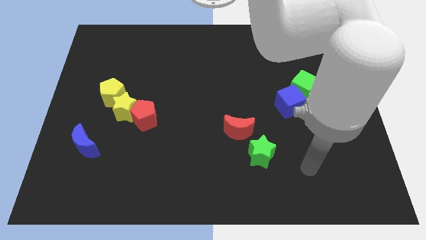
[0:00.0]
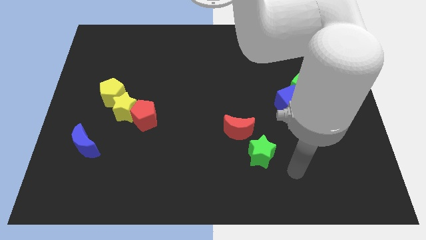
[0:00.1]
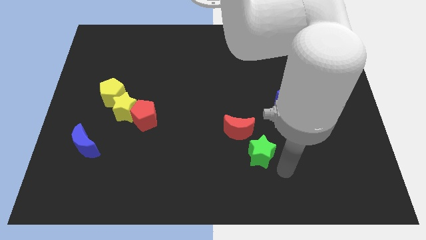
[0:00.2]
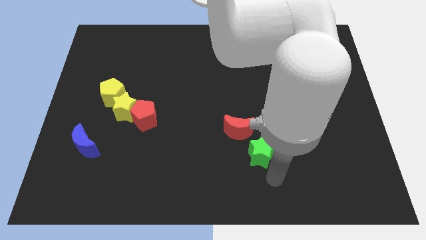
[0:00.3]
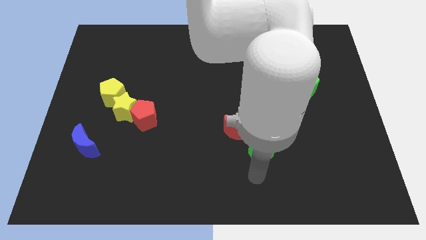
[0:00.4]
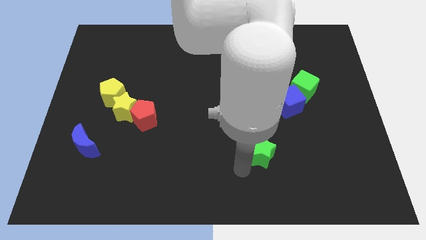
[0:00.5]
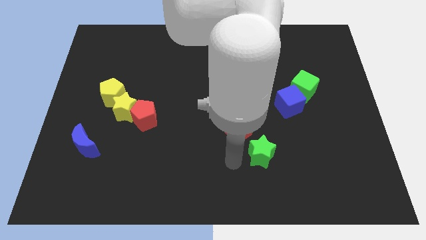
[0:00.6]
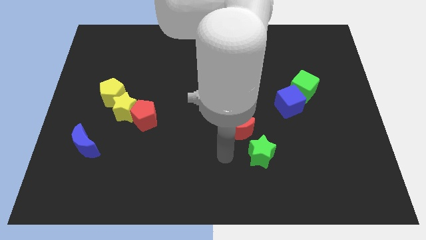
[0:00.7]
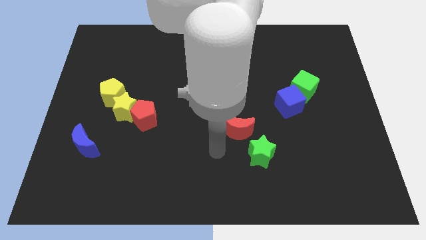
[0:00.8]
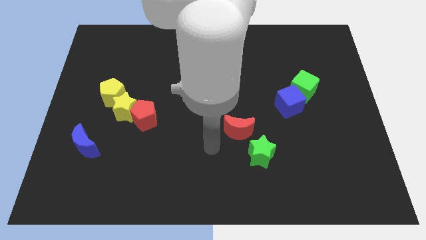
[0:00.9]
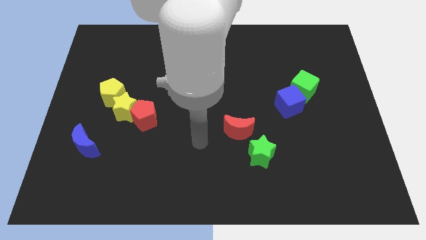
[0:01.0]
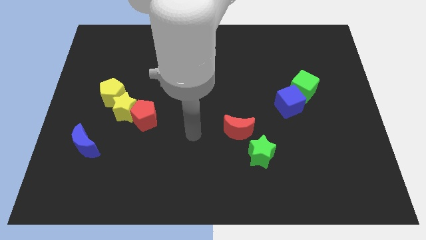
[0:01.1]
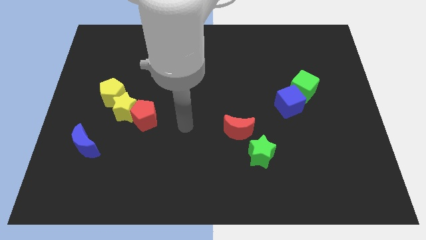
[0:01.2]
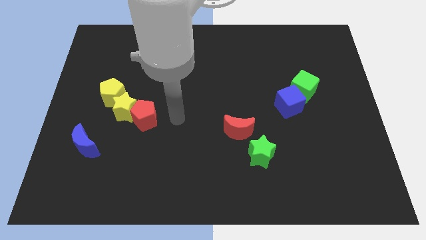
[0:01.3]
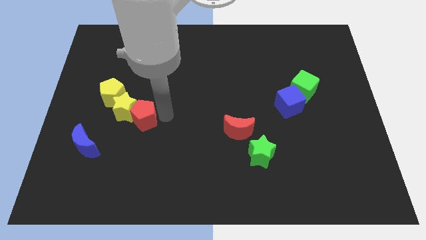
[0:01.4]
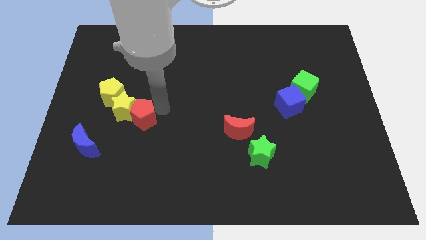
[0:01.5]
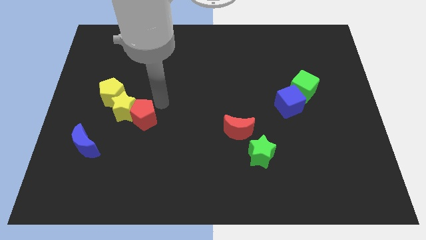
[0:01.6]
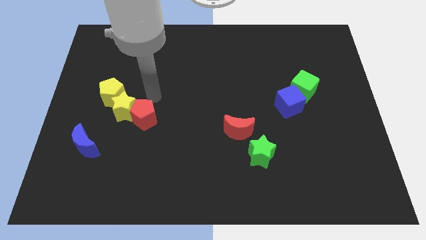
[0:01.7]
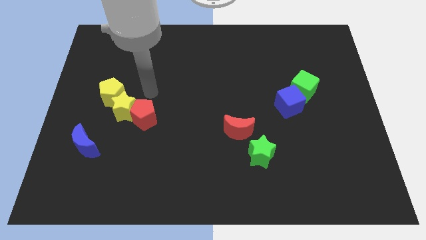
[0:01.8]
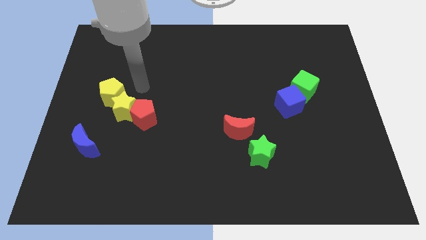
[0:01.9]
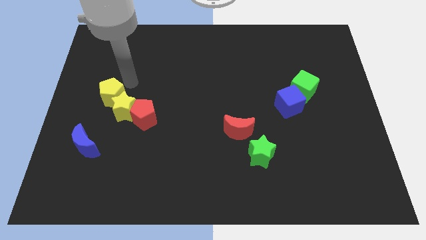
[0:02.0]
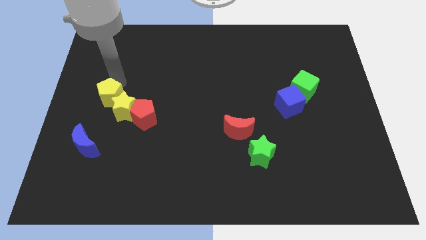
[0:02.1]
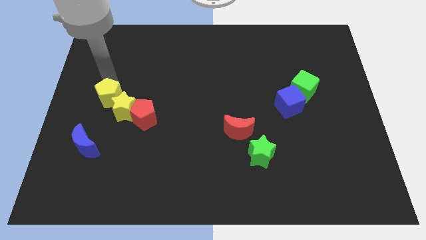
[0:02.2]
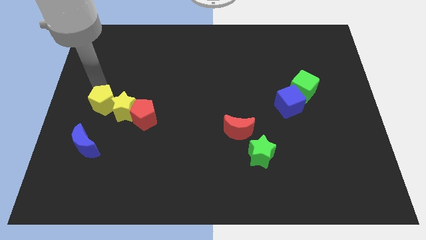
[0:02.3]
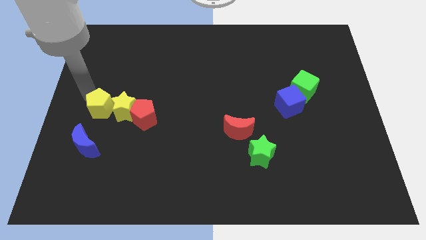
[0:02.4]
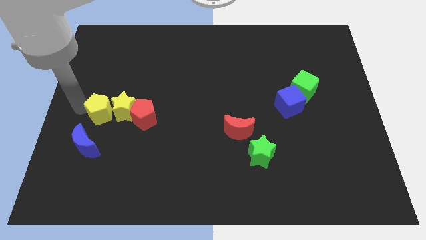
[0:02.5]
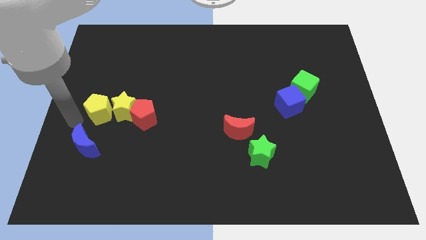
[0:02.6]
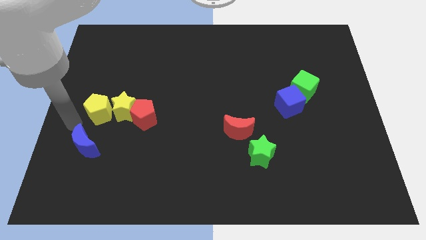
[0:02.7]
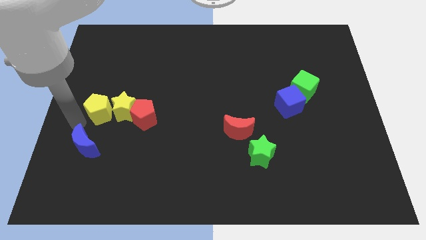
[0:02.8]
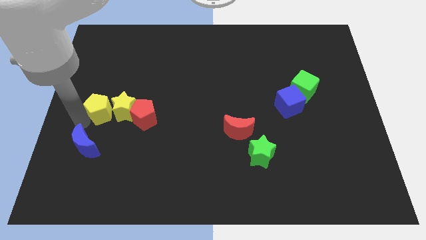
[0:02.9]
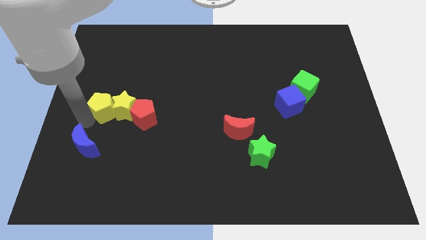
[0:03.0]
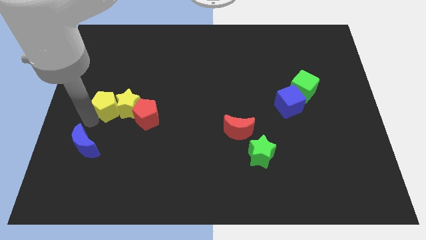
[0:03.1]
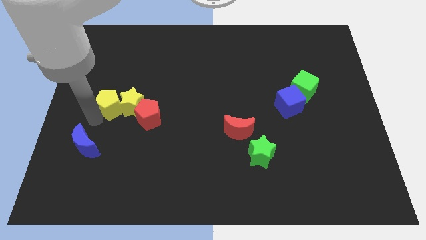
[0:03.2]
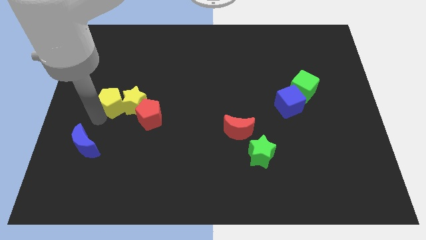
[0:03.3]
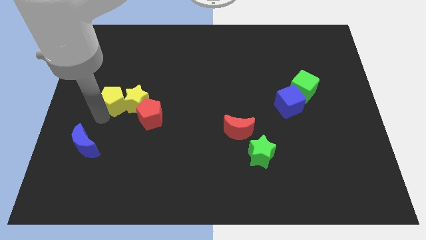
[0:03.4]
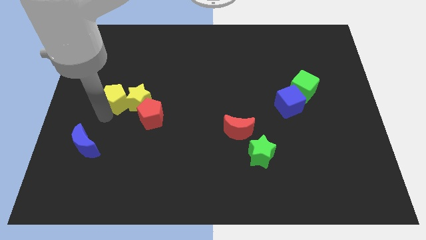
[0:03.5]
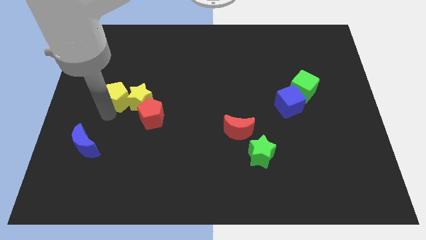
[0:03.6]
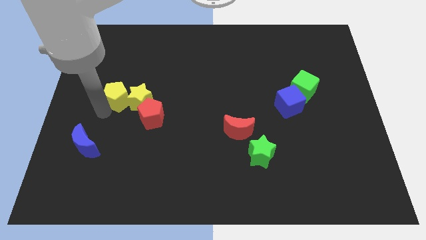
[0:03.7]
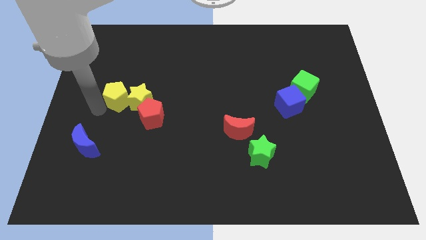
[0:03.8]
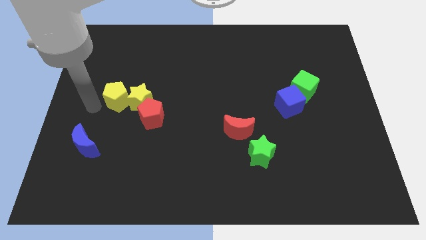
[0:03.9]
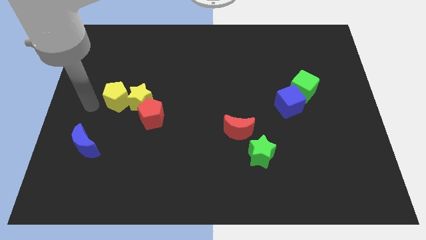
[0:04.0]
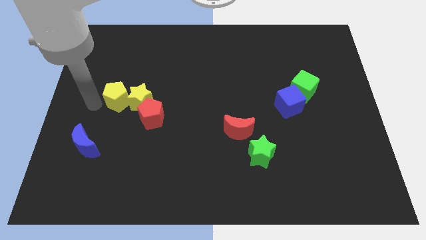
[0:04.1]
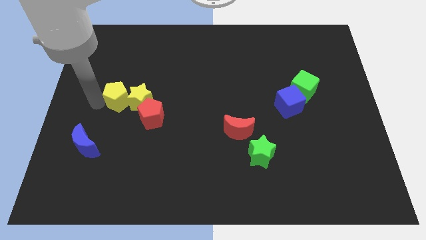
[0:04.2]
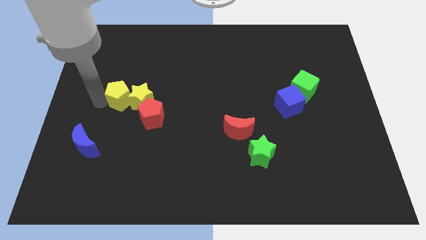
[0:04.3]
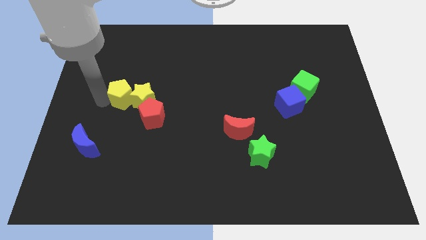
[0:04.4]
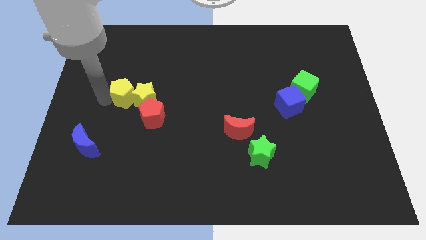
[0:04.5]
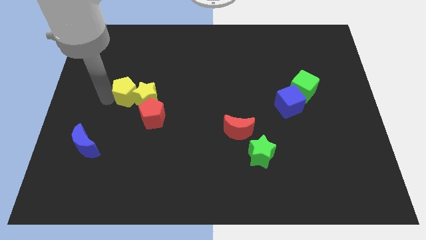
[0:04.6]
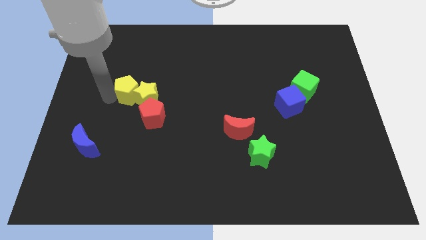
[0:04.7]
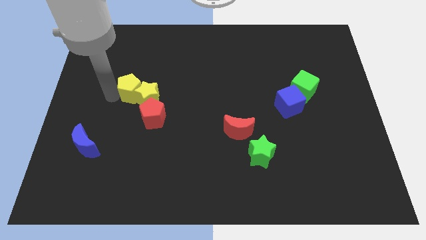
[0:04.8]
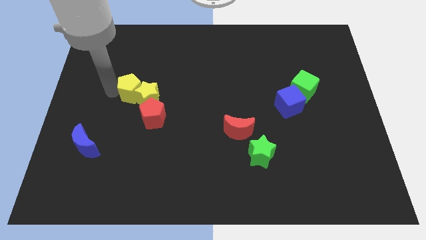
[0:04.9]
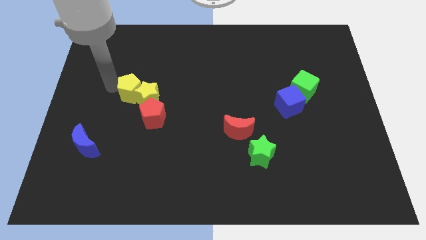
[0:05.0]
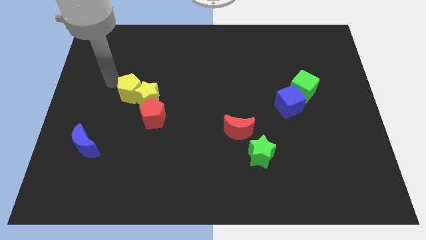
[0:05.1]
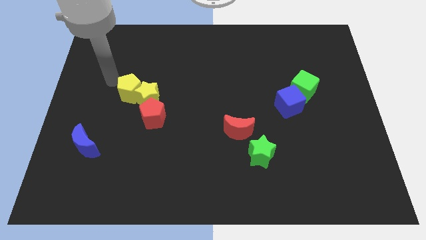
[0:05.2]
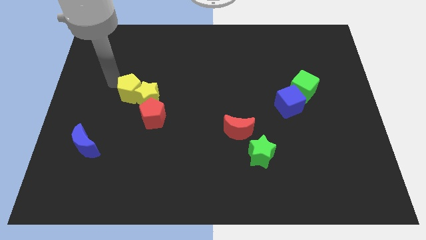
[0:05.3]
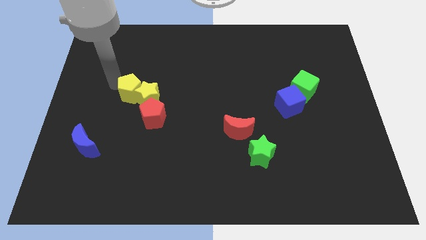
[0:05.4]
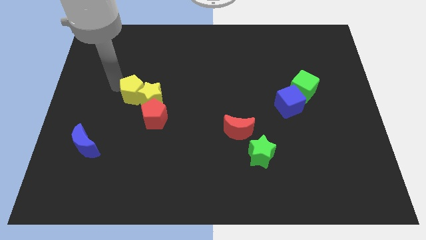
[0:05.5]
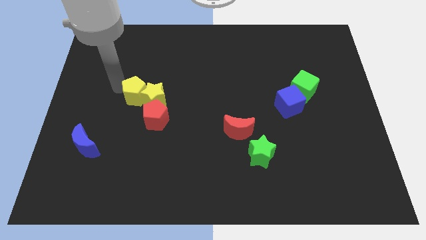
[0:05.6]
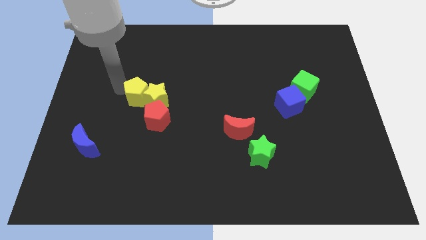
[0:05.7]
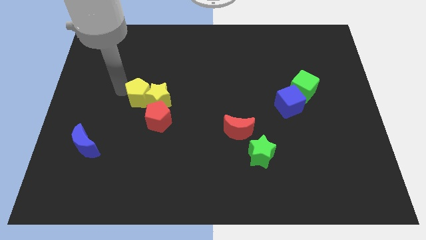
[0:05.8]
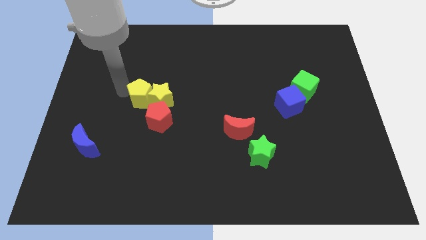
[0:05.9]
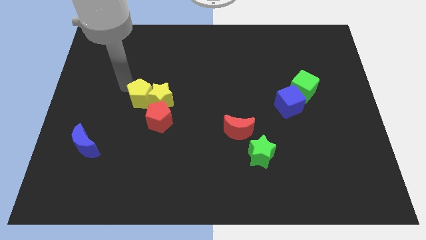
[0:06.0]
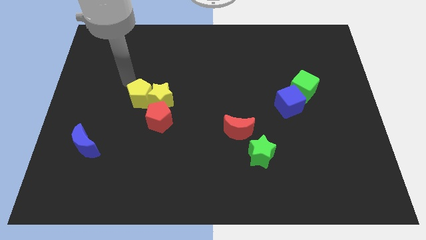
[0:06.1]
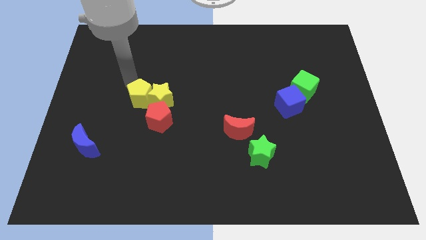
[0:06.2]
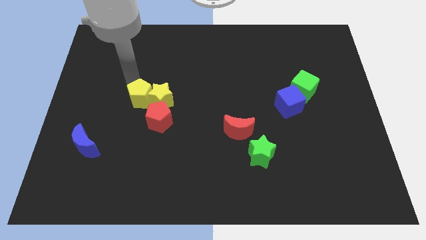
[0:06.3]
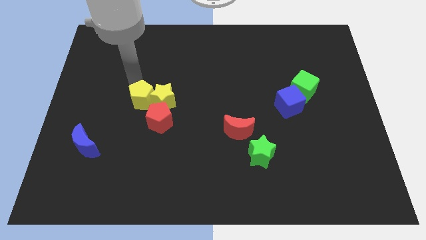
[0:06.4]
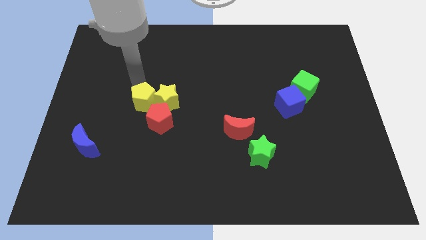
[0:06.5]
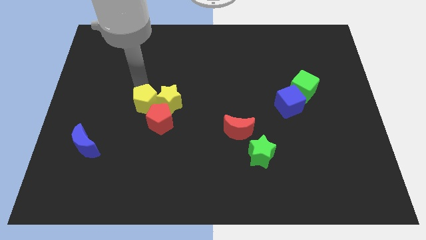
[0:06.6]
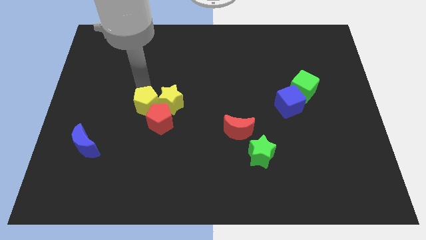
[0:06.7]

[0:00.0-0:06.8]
move the yellow pentagon towards the red pentagon

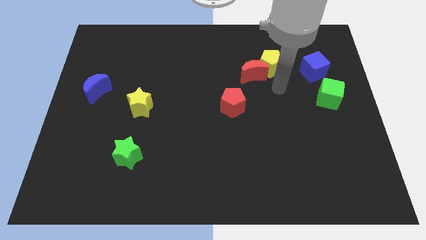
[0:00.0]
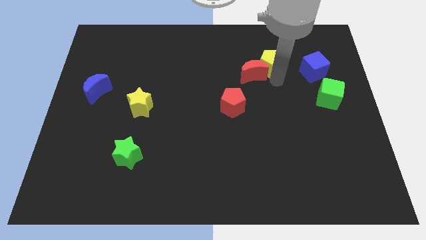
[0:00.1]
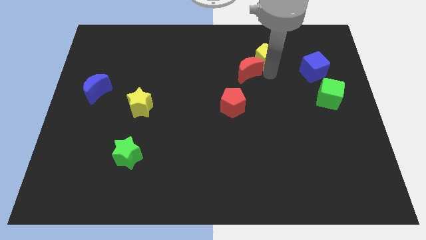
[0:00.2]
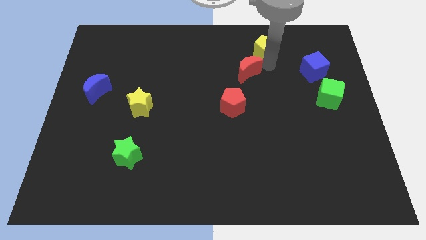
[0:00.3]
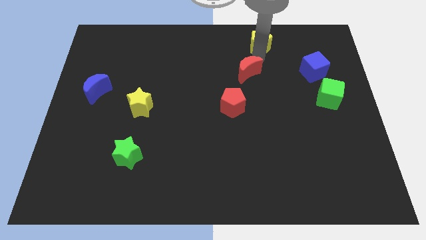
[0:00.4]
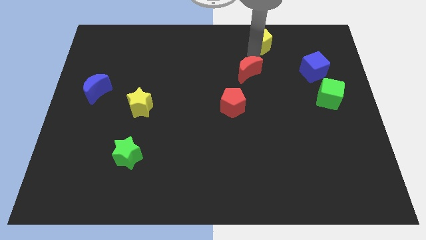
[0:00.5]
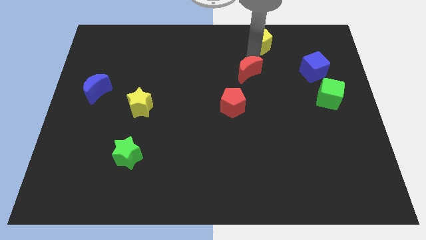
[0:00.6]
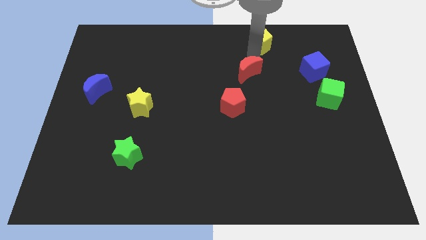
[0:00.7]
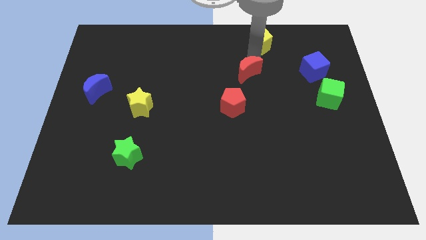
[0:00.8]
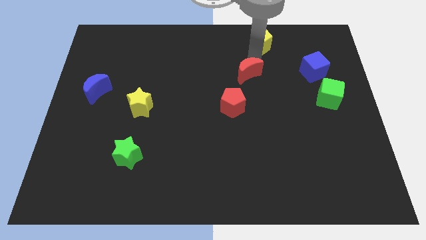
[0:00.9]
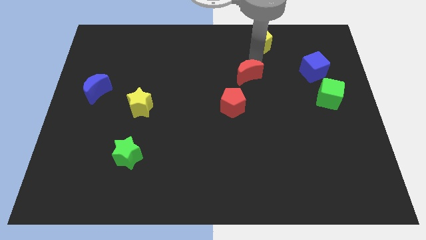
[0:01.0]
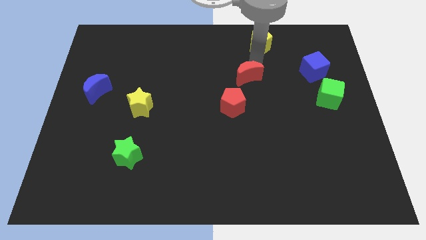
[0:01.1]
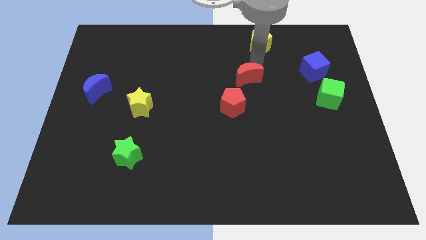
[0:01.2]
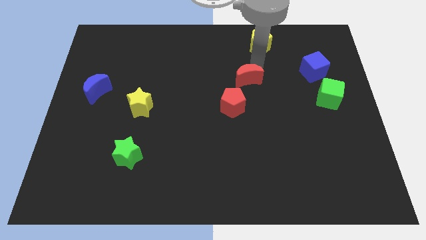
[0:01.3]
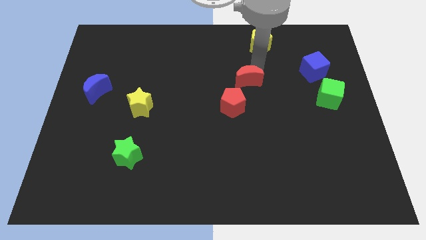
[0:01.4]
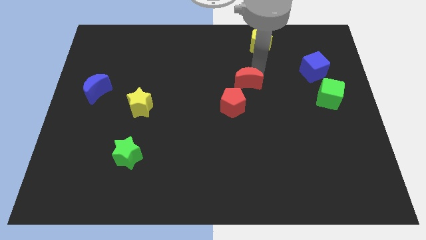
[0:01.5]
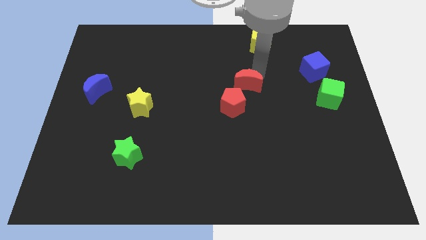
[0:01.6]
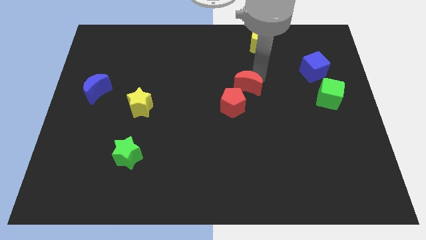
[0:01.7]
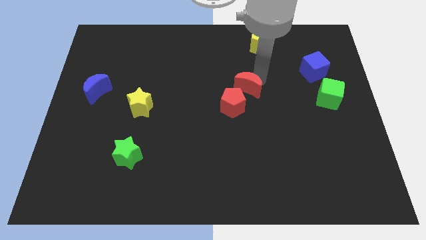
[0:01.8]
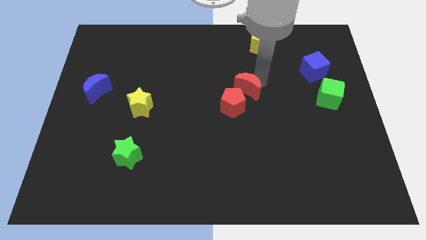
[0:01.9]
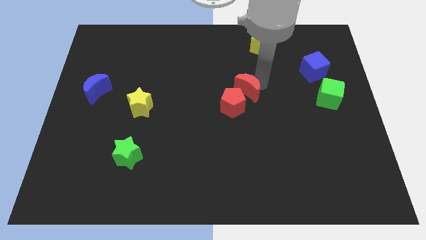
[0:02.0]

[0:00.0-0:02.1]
push the red moon towards the red pentagon
